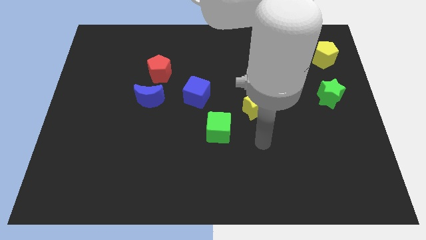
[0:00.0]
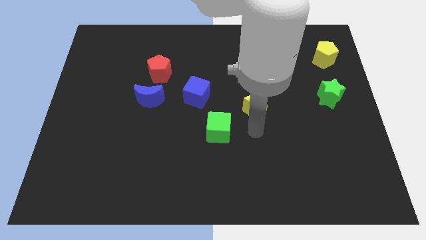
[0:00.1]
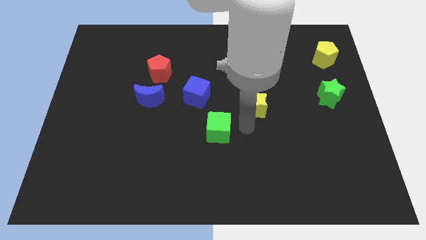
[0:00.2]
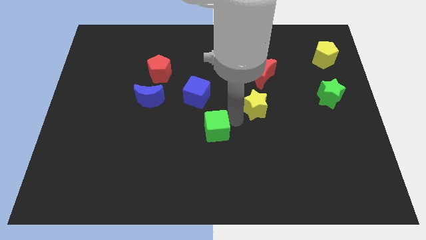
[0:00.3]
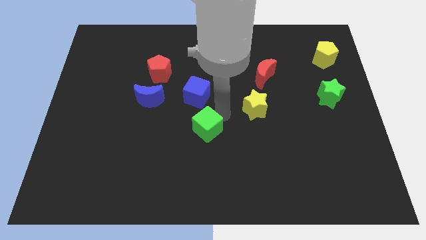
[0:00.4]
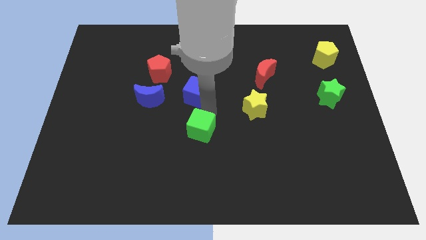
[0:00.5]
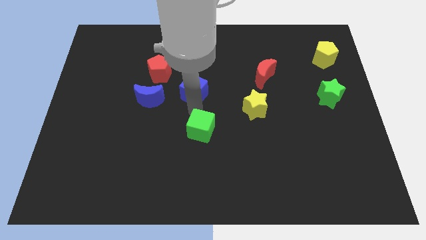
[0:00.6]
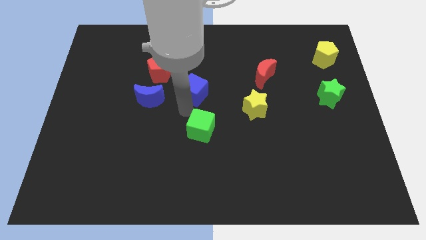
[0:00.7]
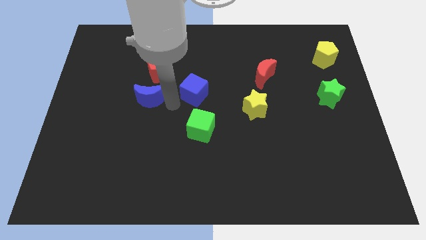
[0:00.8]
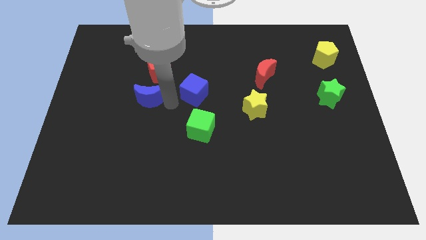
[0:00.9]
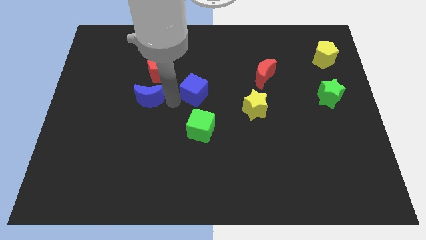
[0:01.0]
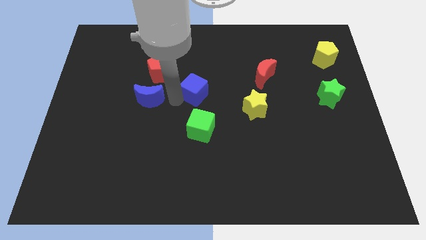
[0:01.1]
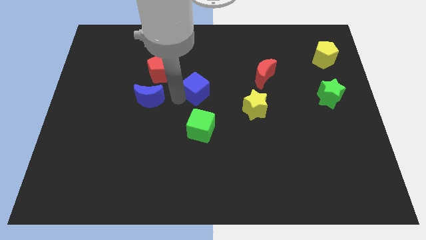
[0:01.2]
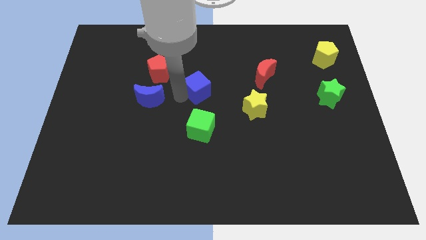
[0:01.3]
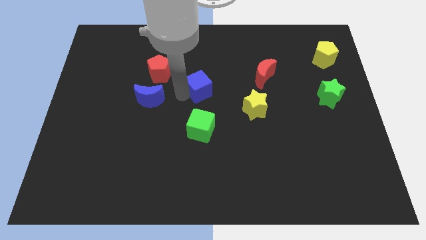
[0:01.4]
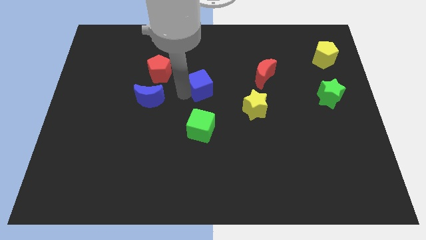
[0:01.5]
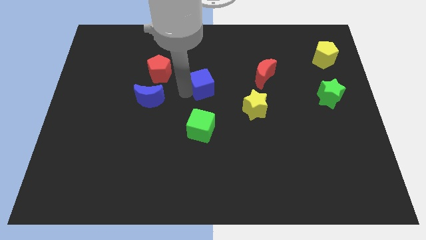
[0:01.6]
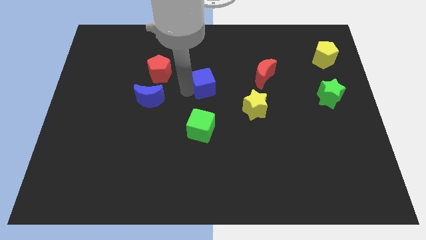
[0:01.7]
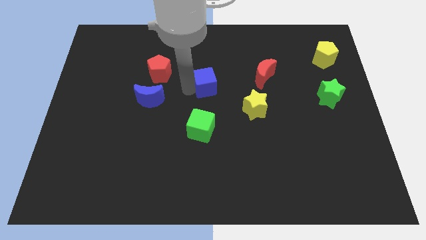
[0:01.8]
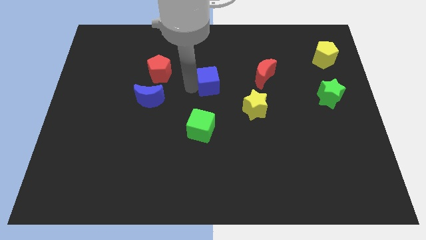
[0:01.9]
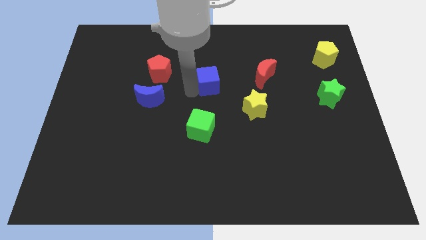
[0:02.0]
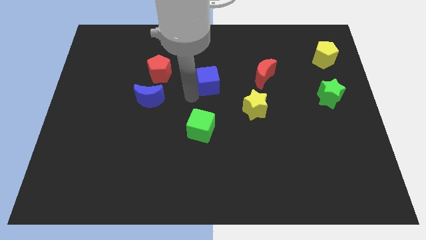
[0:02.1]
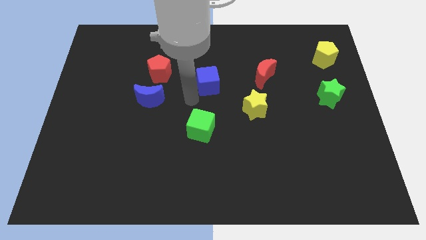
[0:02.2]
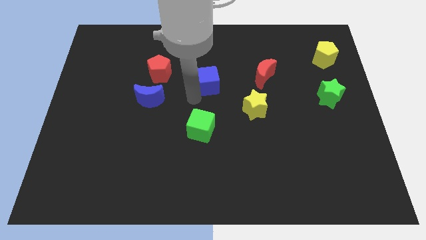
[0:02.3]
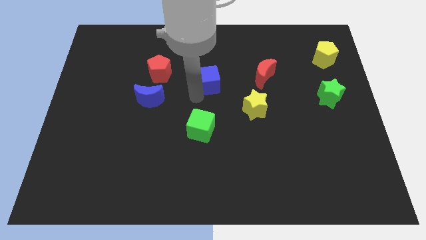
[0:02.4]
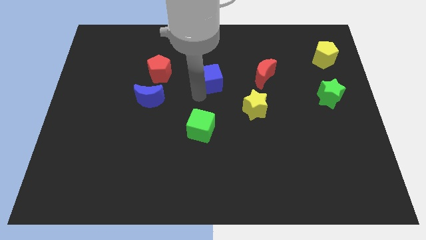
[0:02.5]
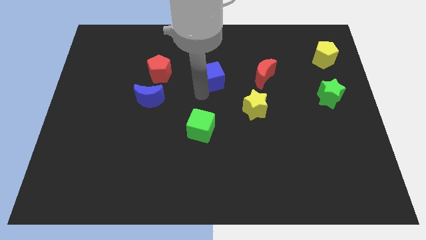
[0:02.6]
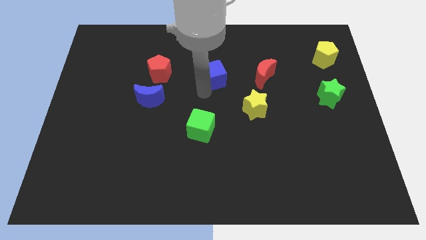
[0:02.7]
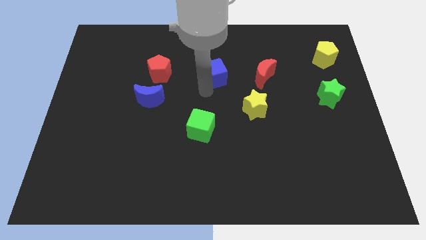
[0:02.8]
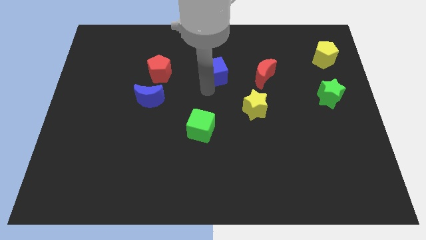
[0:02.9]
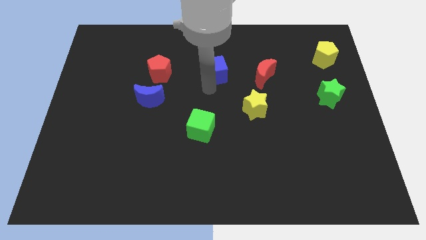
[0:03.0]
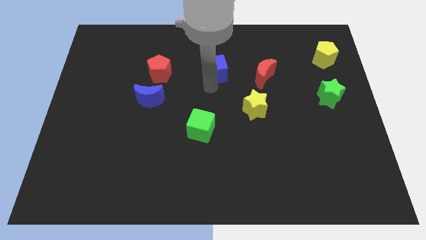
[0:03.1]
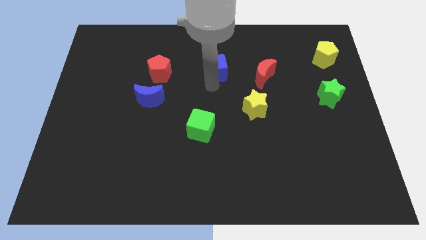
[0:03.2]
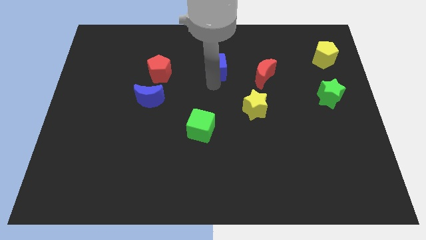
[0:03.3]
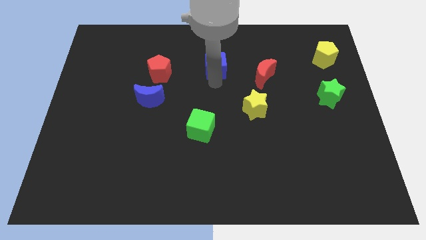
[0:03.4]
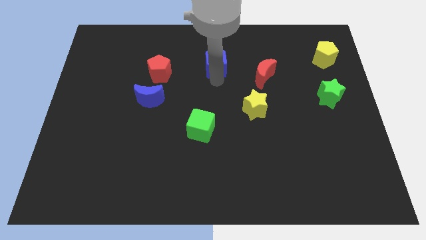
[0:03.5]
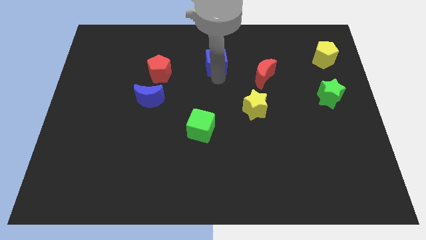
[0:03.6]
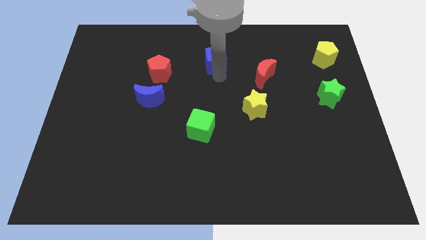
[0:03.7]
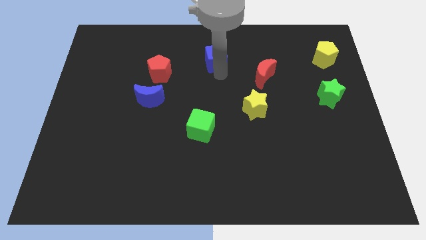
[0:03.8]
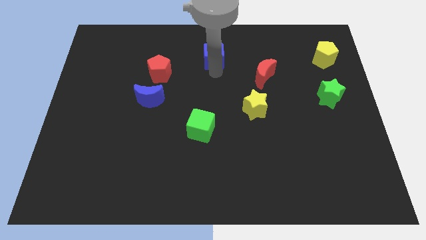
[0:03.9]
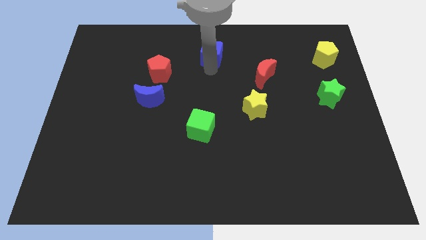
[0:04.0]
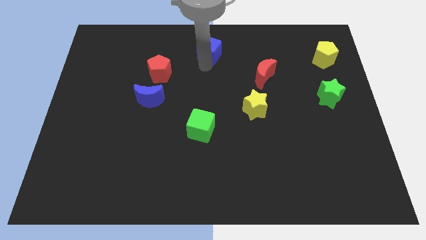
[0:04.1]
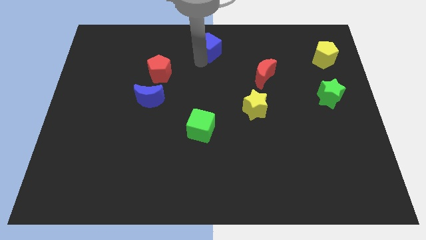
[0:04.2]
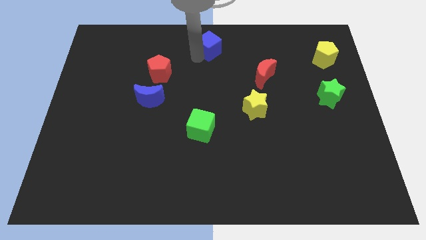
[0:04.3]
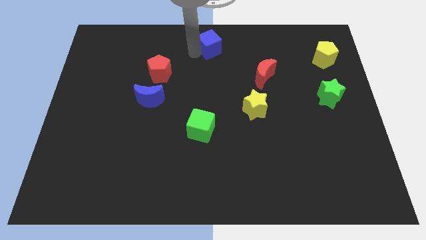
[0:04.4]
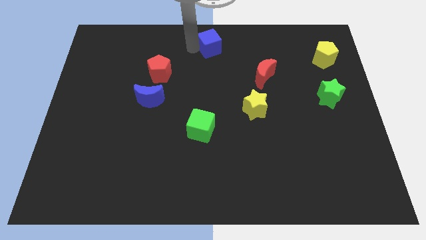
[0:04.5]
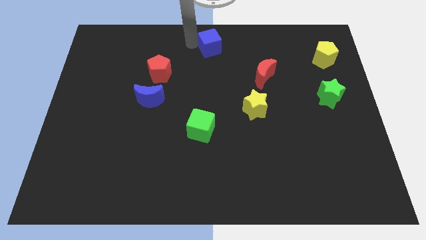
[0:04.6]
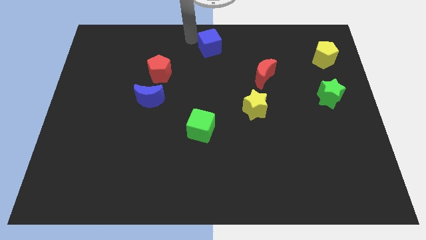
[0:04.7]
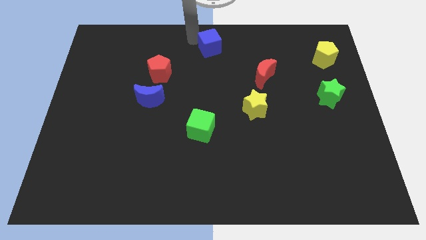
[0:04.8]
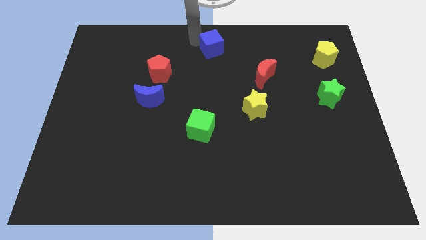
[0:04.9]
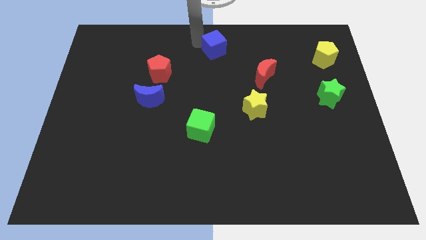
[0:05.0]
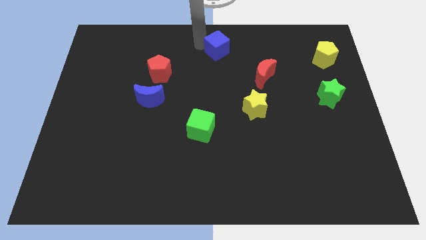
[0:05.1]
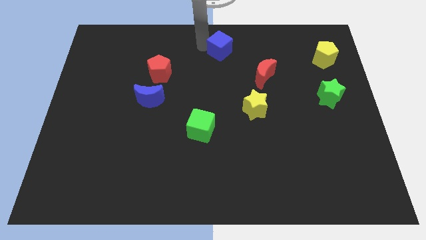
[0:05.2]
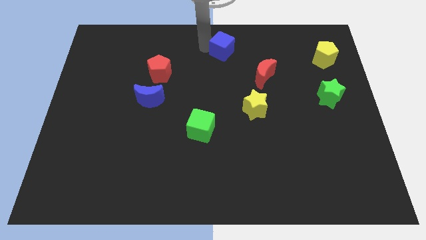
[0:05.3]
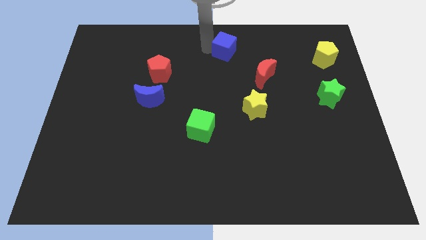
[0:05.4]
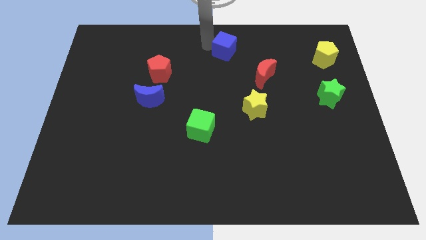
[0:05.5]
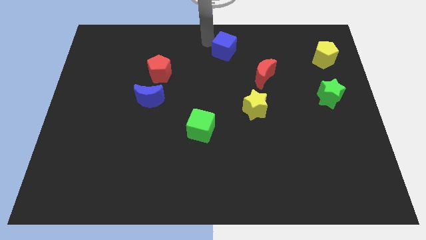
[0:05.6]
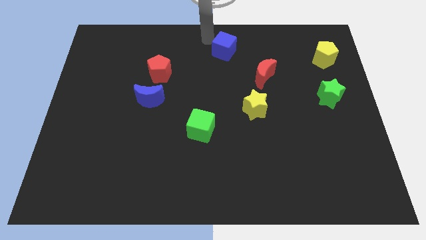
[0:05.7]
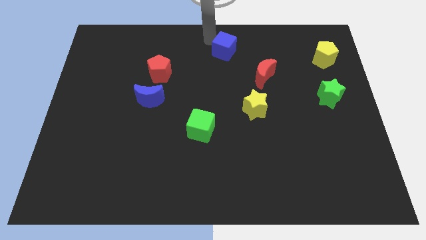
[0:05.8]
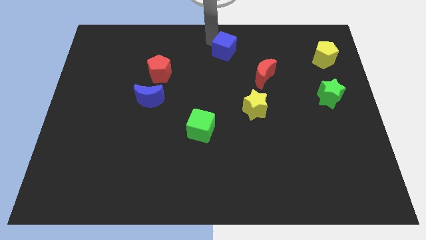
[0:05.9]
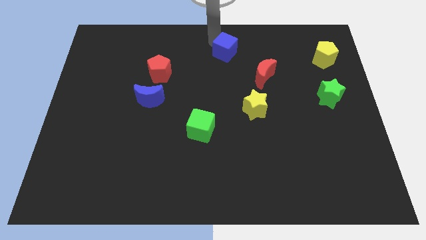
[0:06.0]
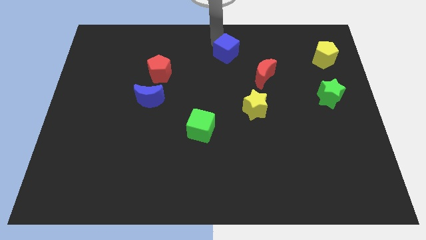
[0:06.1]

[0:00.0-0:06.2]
put the blue cube to the top left side of the red moon

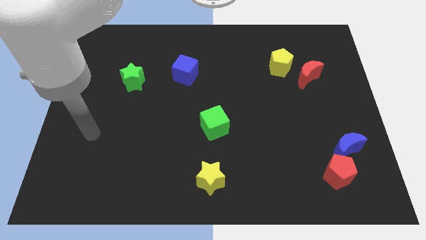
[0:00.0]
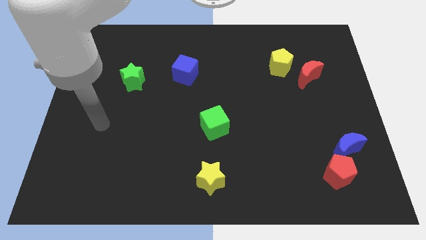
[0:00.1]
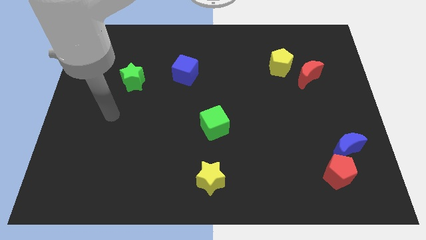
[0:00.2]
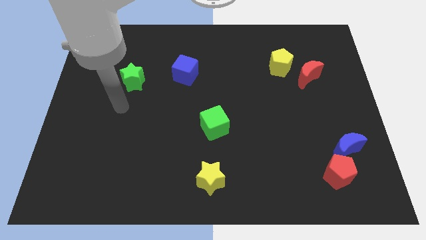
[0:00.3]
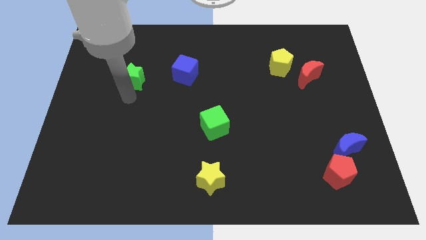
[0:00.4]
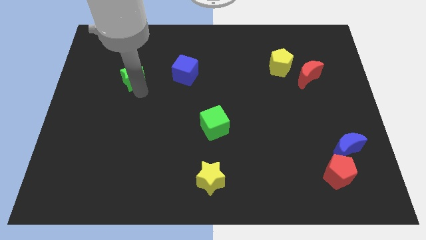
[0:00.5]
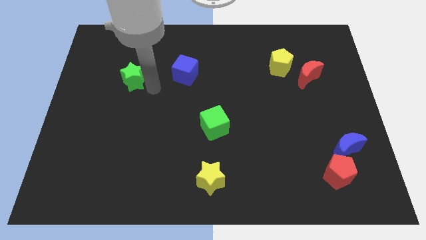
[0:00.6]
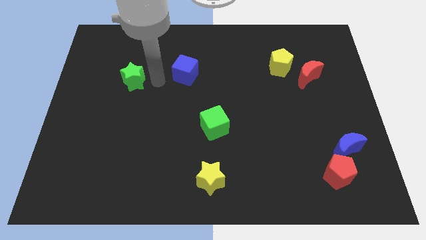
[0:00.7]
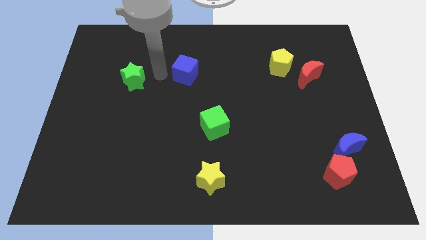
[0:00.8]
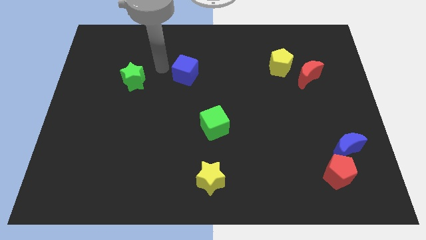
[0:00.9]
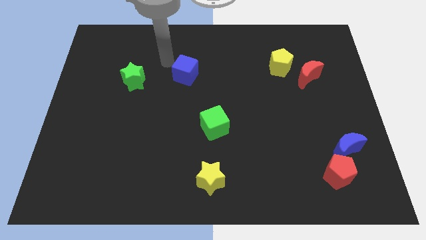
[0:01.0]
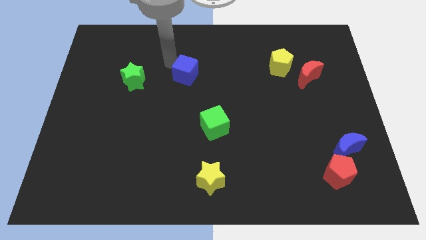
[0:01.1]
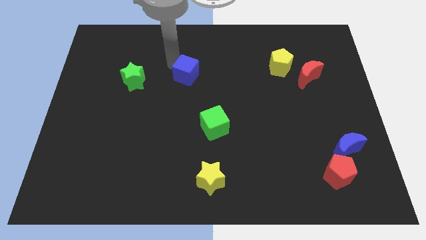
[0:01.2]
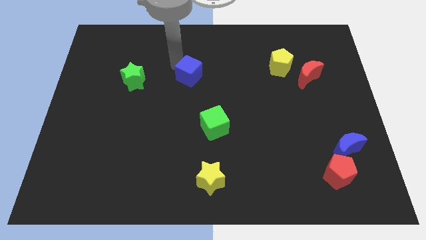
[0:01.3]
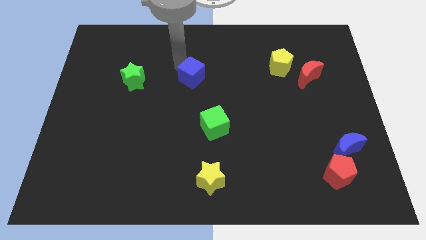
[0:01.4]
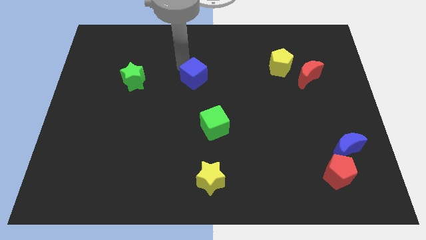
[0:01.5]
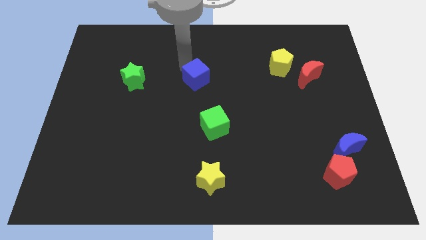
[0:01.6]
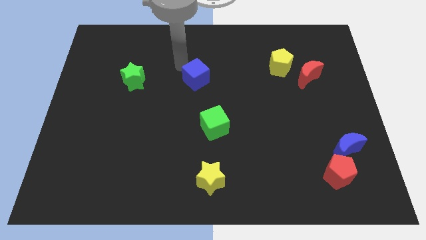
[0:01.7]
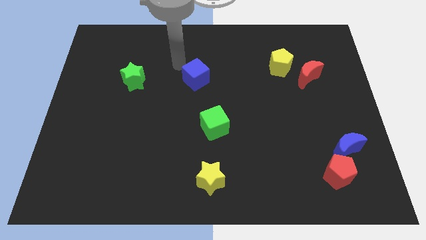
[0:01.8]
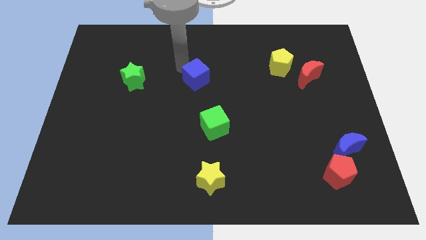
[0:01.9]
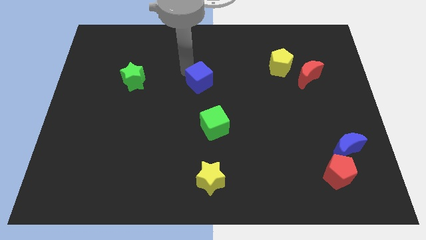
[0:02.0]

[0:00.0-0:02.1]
push the blue cube to the top side of the green cube

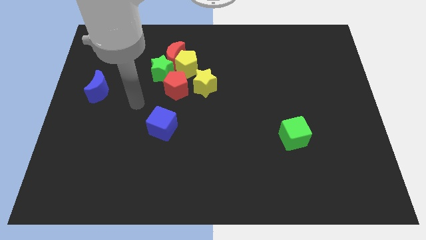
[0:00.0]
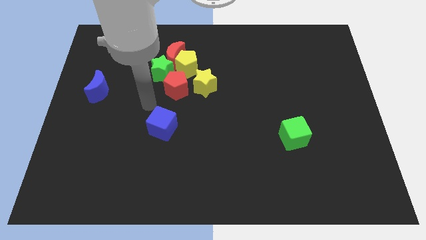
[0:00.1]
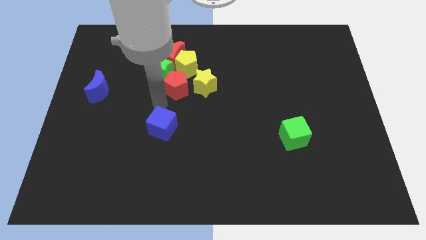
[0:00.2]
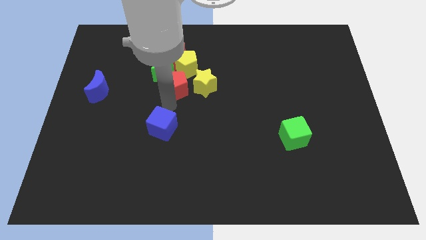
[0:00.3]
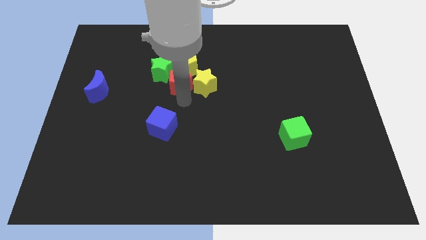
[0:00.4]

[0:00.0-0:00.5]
push the red moon to the top left of the red pentagon
